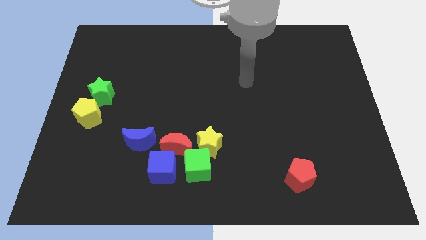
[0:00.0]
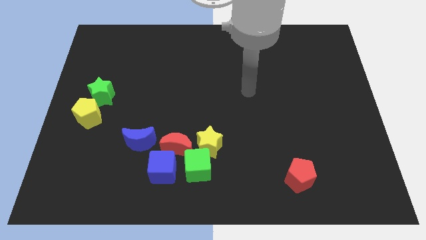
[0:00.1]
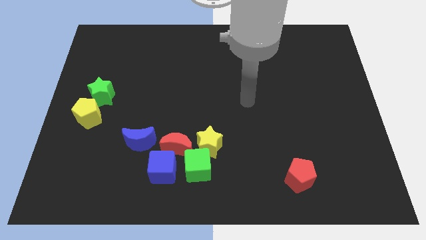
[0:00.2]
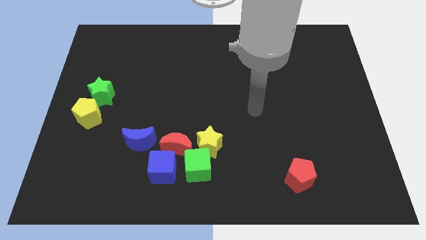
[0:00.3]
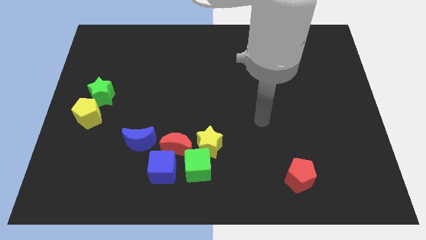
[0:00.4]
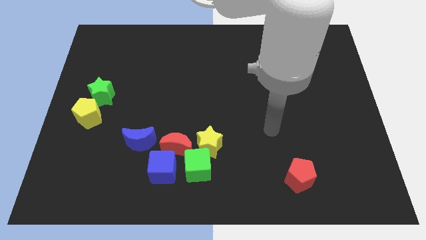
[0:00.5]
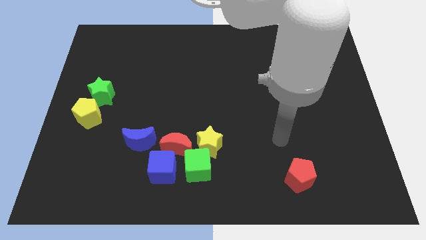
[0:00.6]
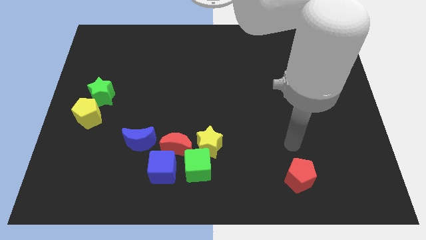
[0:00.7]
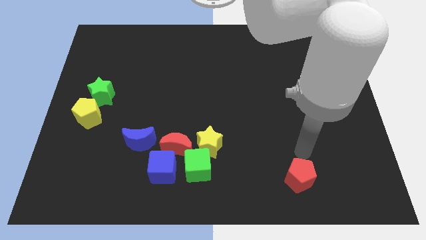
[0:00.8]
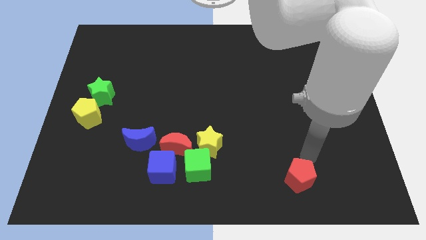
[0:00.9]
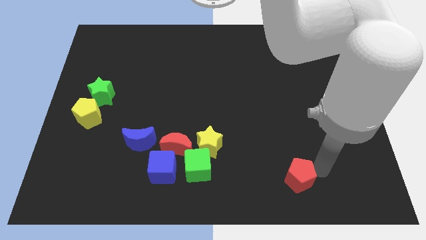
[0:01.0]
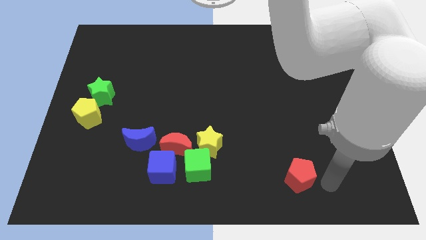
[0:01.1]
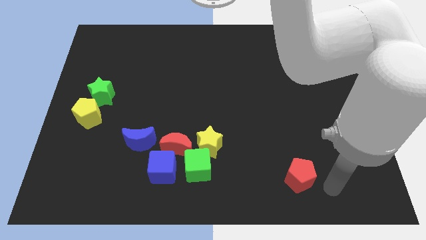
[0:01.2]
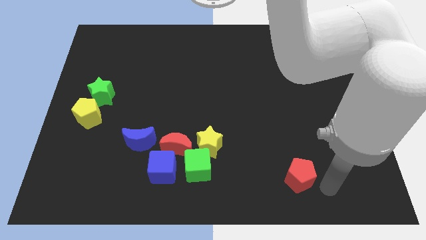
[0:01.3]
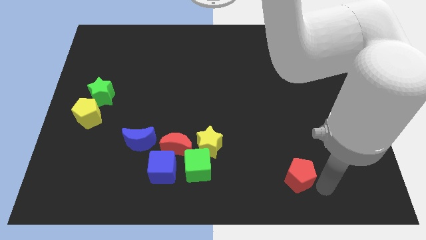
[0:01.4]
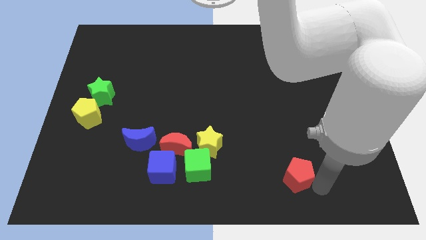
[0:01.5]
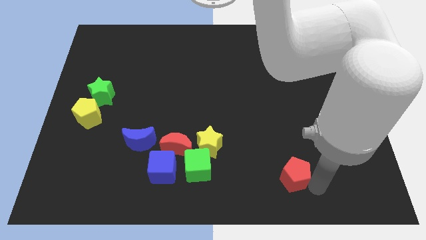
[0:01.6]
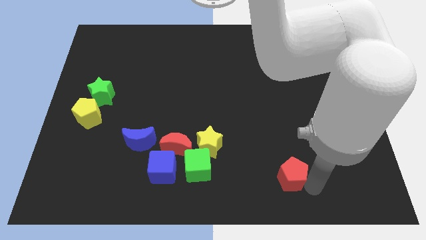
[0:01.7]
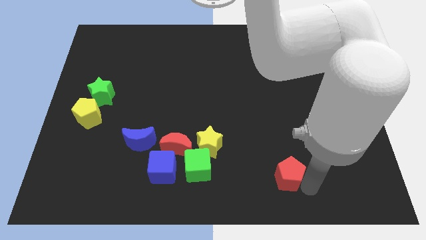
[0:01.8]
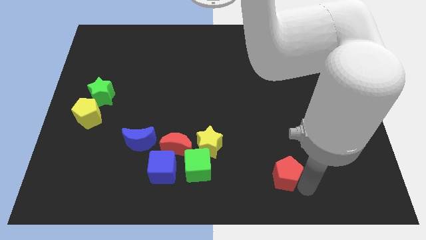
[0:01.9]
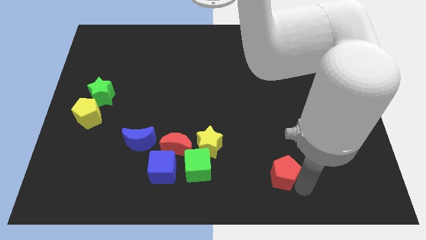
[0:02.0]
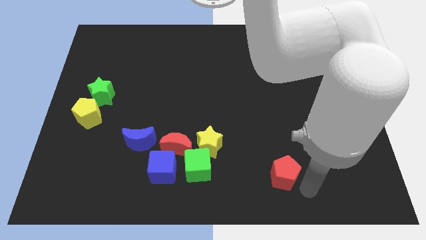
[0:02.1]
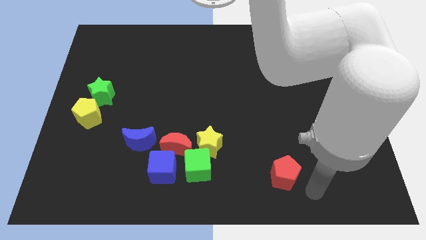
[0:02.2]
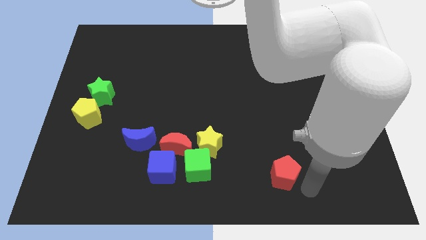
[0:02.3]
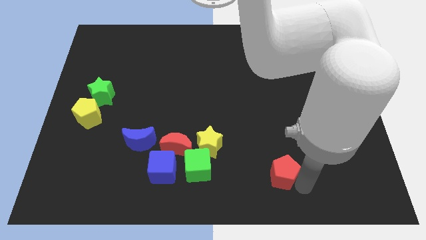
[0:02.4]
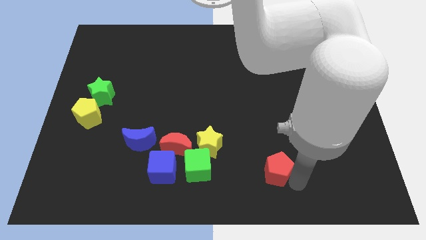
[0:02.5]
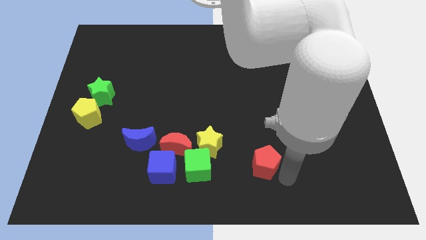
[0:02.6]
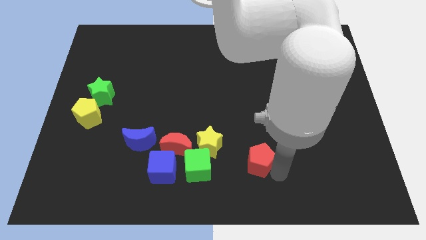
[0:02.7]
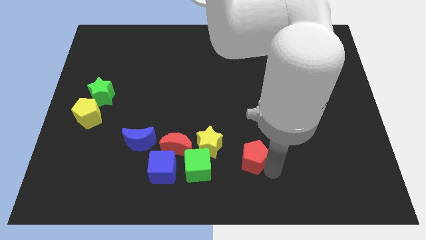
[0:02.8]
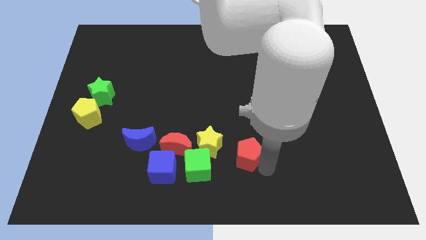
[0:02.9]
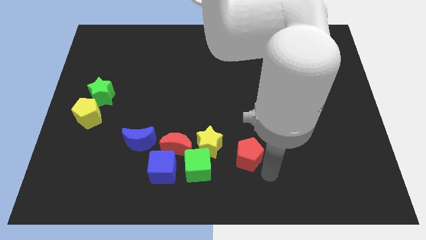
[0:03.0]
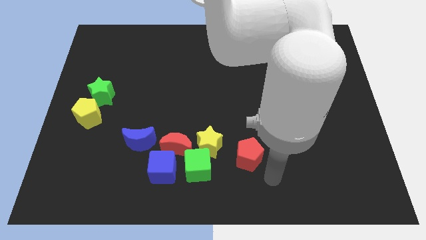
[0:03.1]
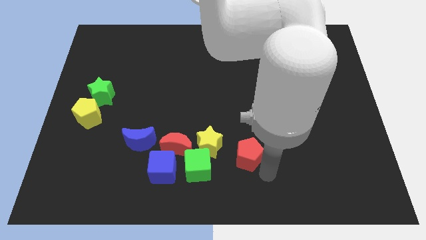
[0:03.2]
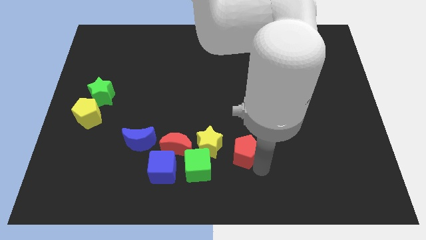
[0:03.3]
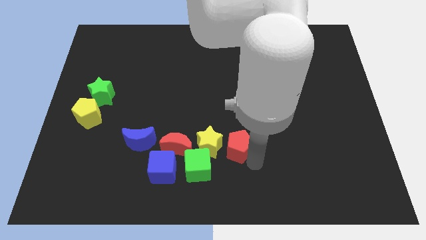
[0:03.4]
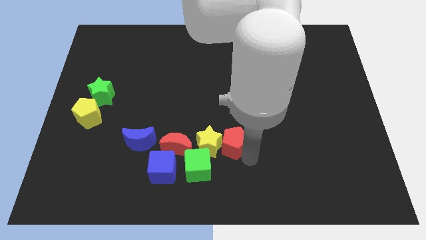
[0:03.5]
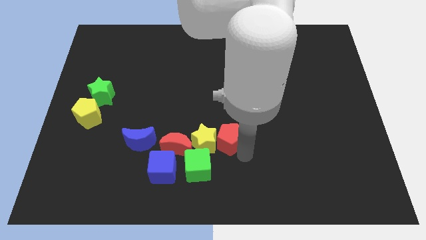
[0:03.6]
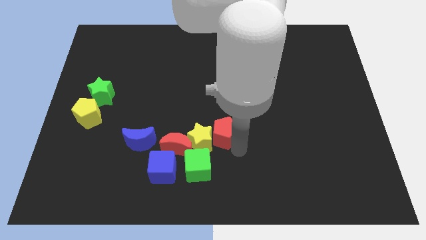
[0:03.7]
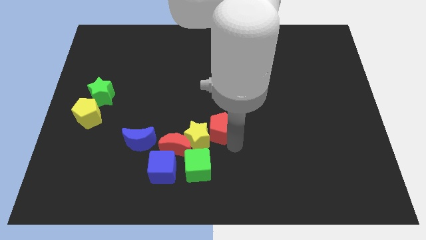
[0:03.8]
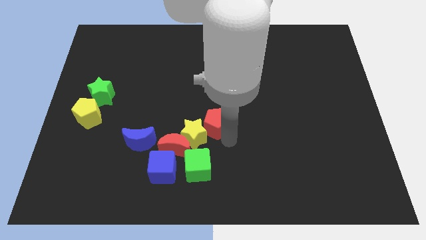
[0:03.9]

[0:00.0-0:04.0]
slide the red pentagon upwards and then left

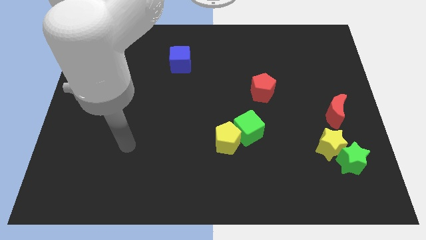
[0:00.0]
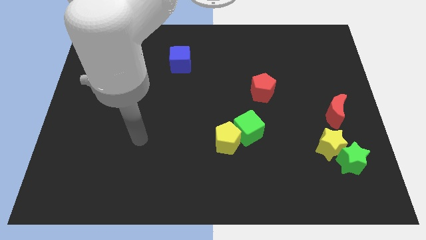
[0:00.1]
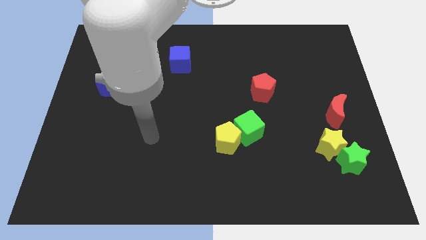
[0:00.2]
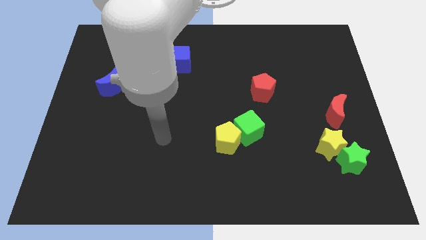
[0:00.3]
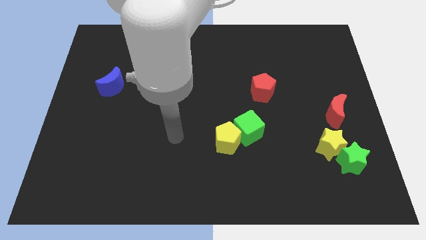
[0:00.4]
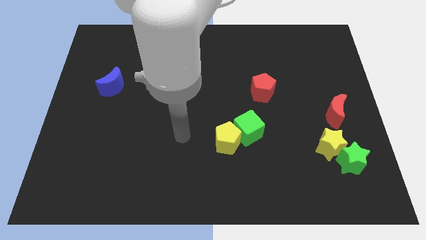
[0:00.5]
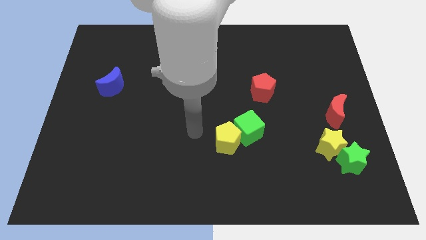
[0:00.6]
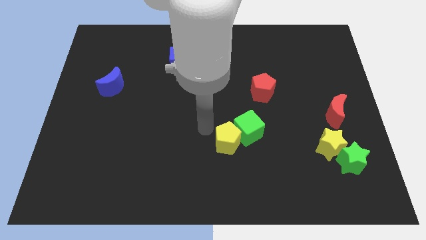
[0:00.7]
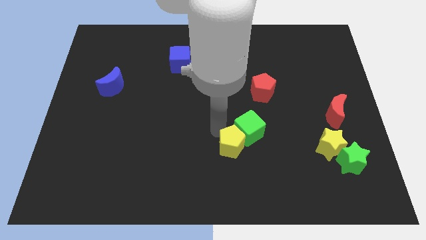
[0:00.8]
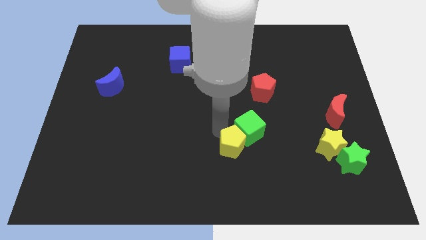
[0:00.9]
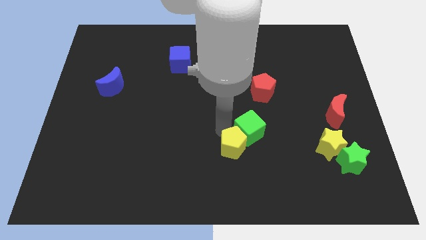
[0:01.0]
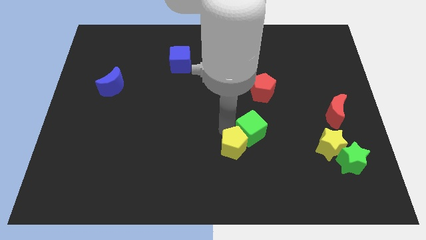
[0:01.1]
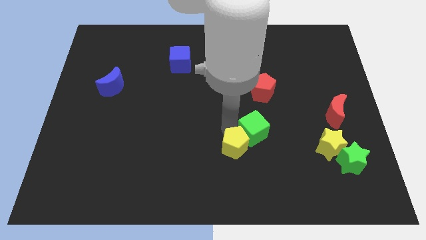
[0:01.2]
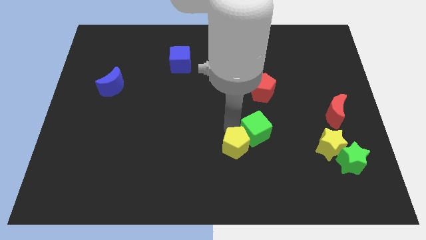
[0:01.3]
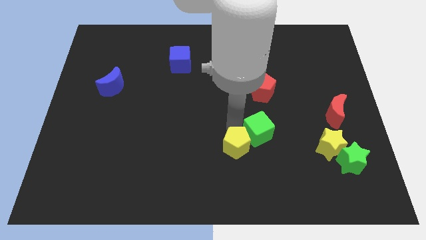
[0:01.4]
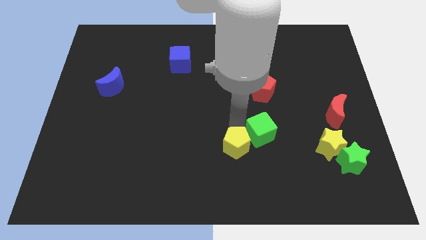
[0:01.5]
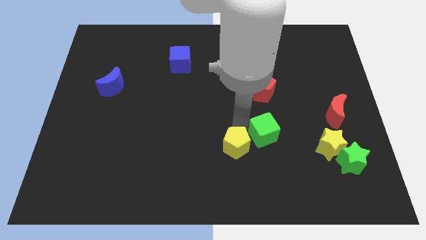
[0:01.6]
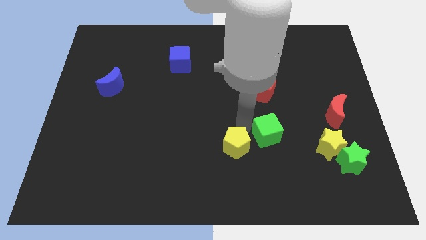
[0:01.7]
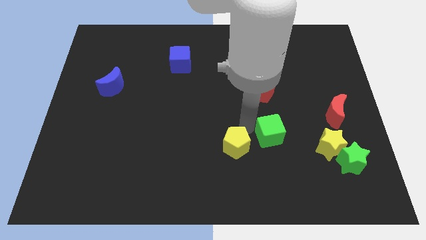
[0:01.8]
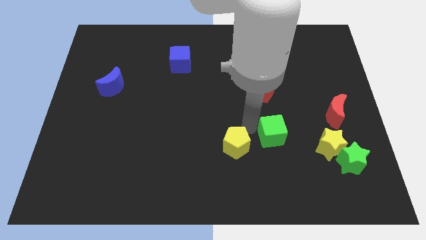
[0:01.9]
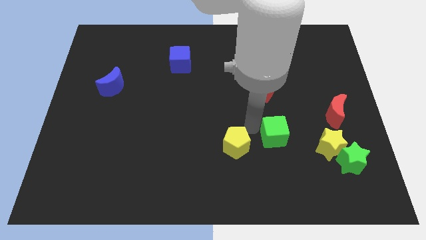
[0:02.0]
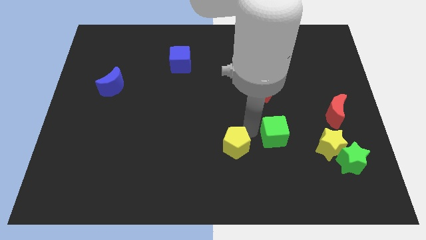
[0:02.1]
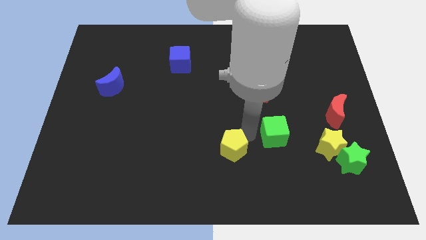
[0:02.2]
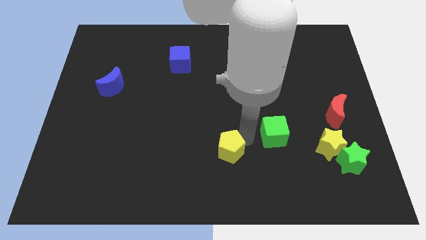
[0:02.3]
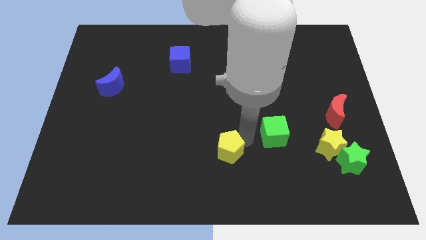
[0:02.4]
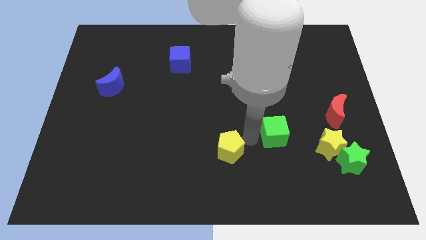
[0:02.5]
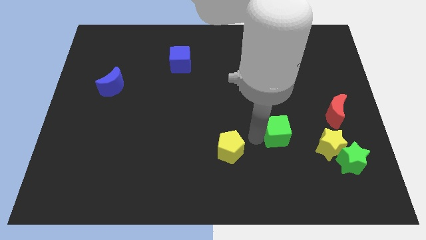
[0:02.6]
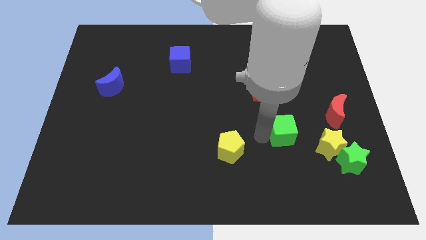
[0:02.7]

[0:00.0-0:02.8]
move the green cube right a little bit

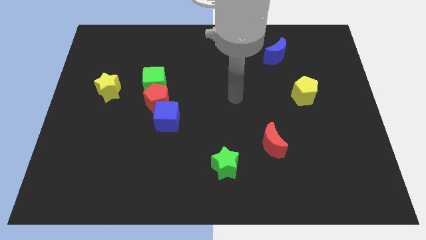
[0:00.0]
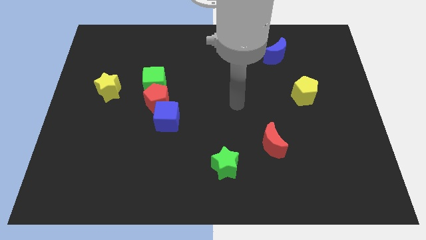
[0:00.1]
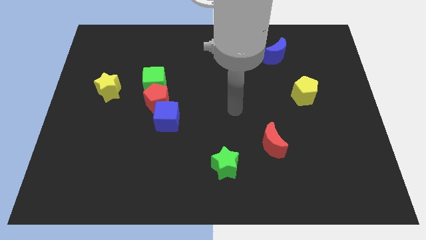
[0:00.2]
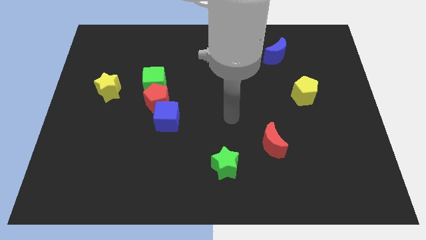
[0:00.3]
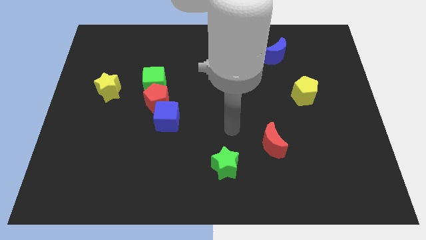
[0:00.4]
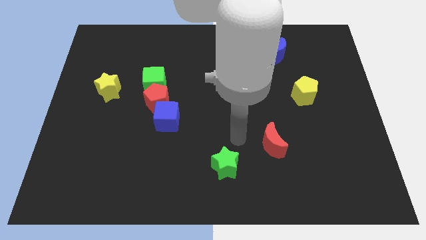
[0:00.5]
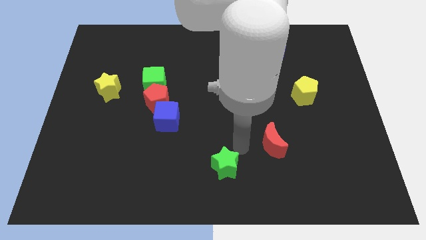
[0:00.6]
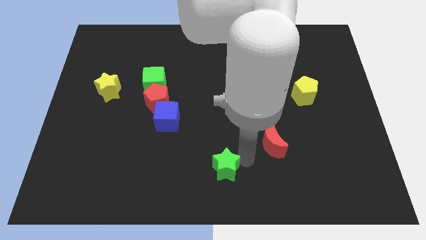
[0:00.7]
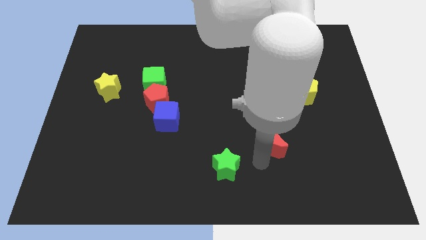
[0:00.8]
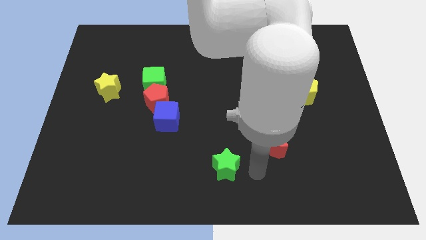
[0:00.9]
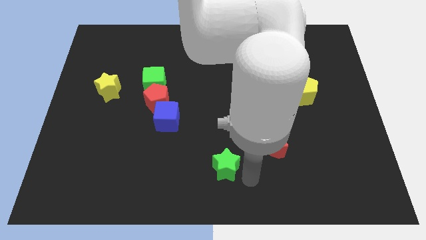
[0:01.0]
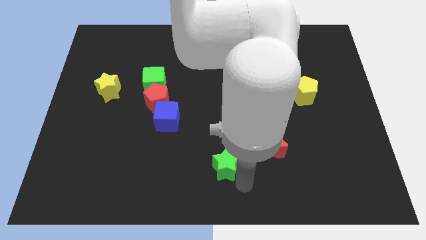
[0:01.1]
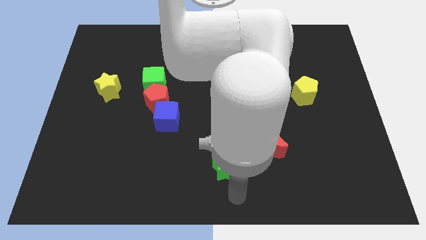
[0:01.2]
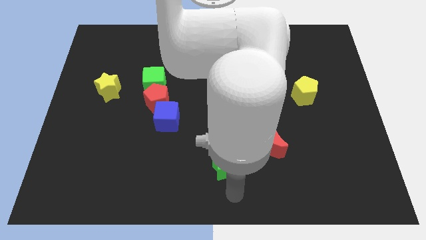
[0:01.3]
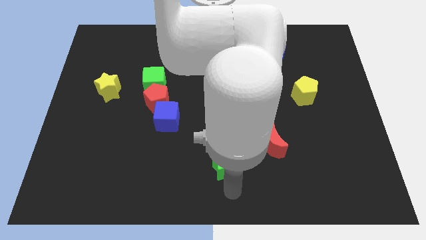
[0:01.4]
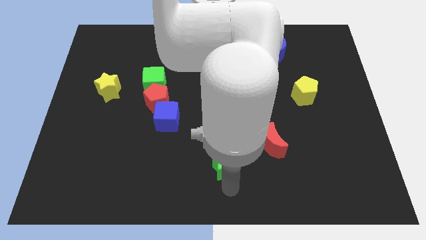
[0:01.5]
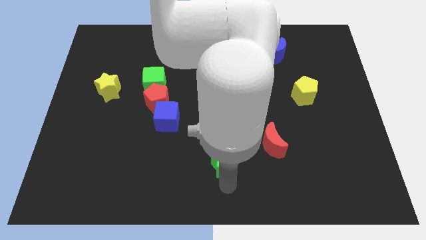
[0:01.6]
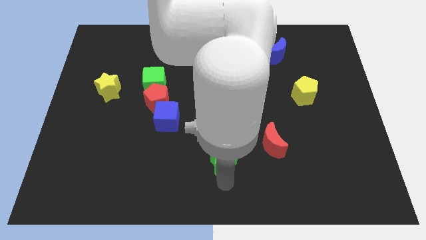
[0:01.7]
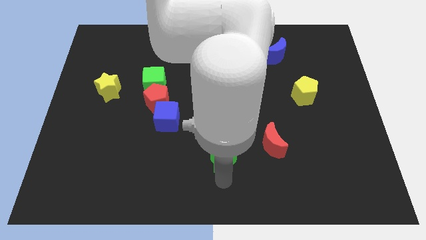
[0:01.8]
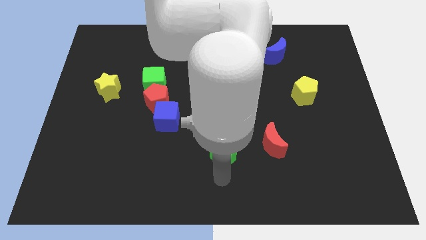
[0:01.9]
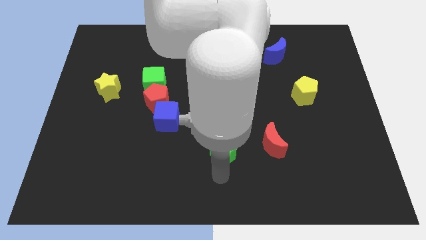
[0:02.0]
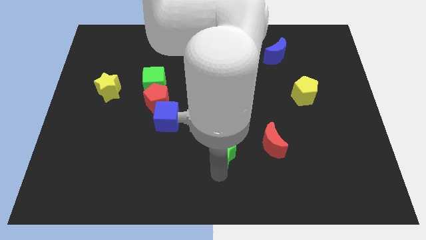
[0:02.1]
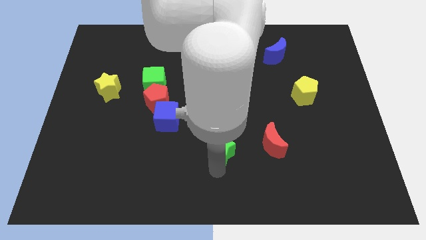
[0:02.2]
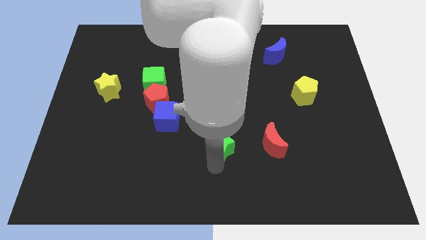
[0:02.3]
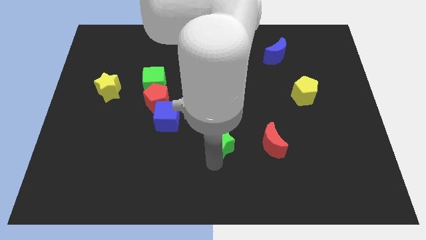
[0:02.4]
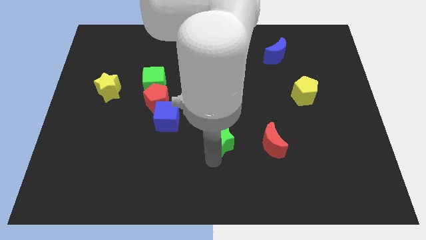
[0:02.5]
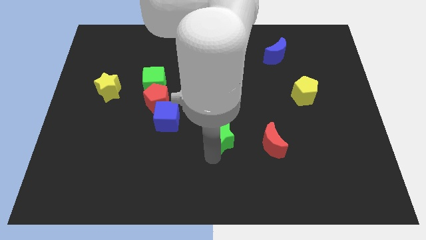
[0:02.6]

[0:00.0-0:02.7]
slightly push the green star up
